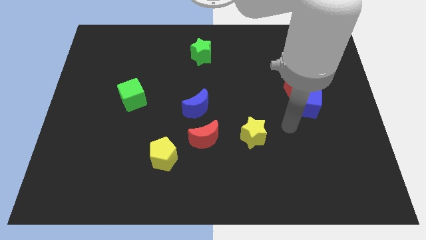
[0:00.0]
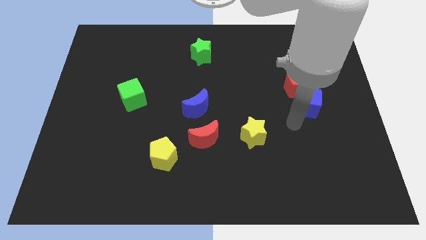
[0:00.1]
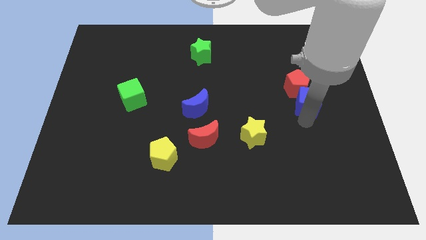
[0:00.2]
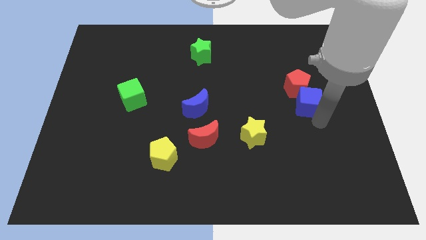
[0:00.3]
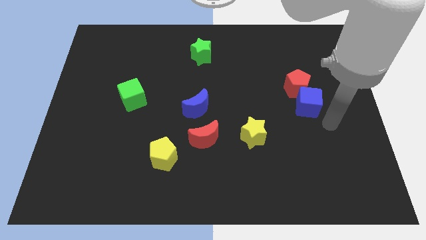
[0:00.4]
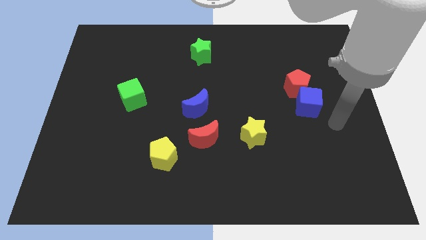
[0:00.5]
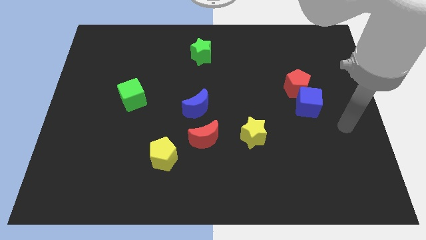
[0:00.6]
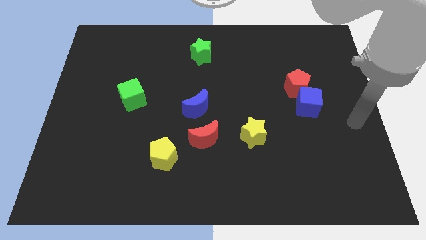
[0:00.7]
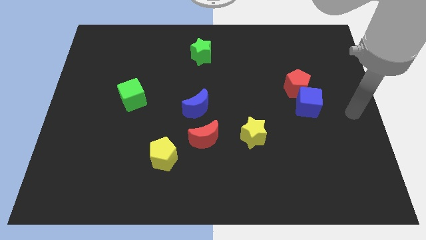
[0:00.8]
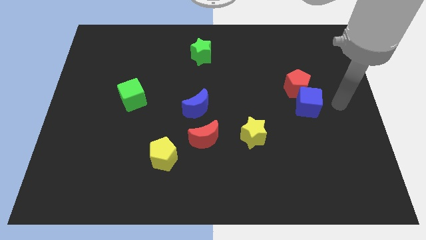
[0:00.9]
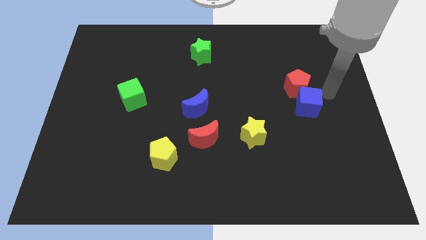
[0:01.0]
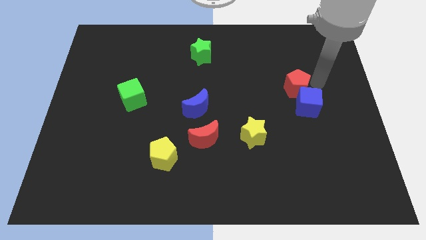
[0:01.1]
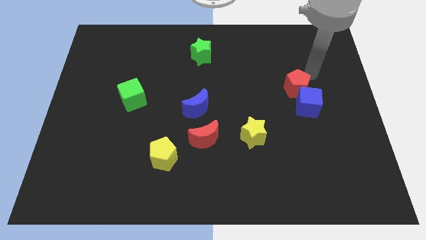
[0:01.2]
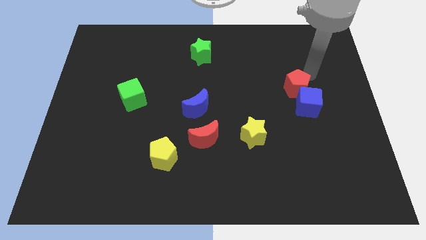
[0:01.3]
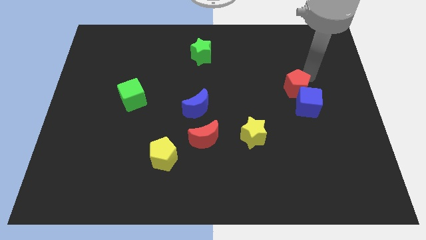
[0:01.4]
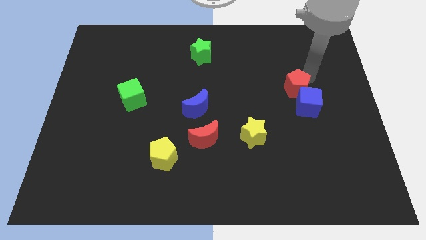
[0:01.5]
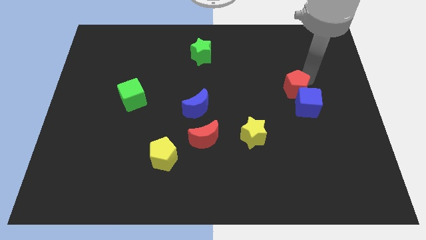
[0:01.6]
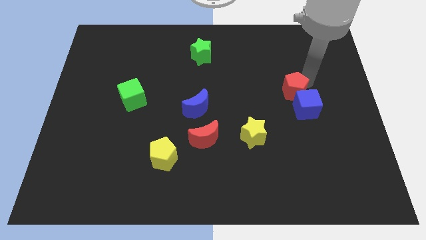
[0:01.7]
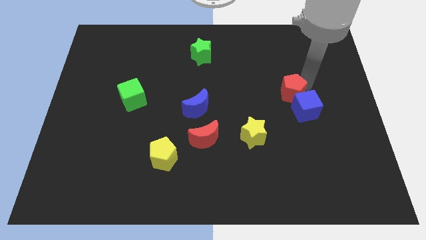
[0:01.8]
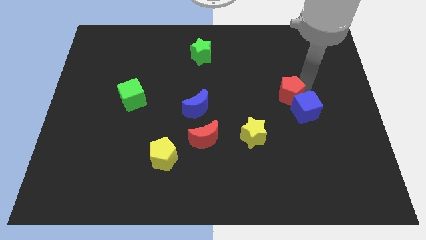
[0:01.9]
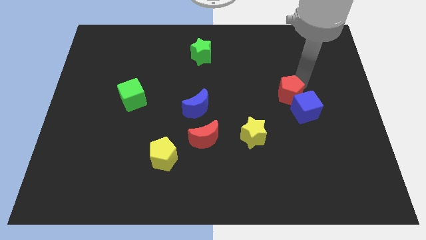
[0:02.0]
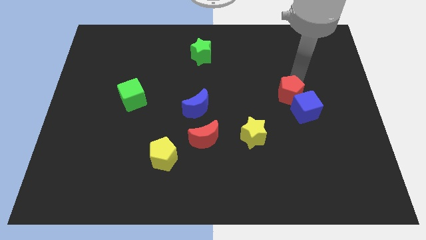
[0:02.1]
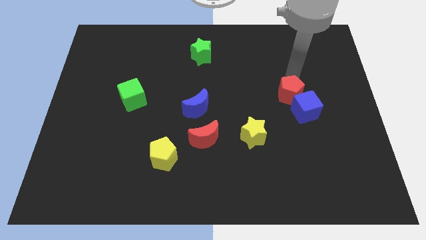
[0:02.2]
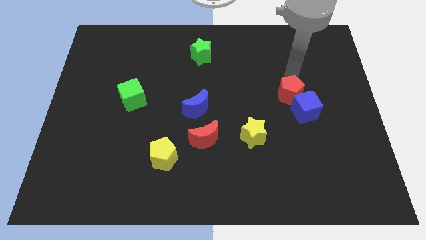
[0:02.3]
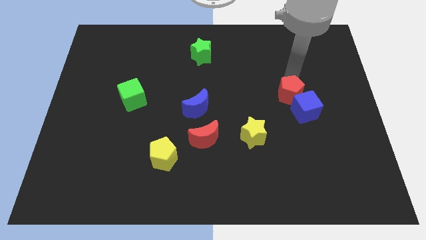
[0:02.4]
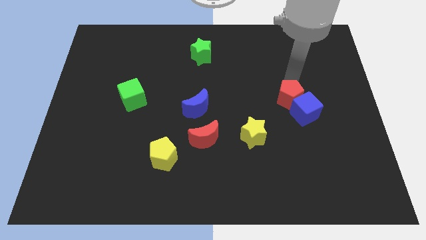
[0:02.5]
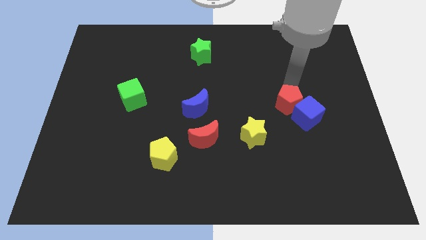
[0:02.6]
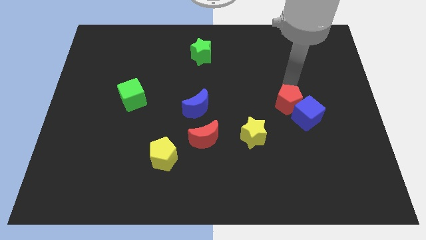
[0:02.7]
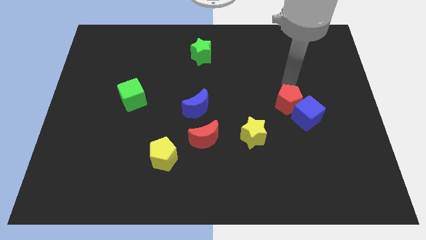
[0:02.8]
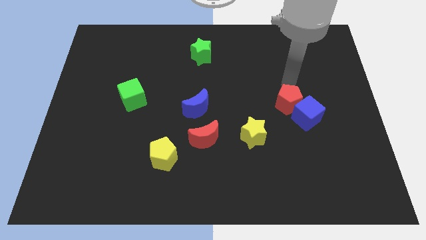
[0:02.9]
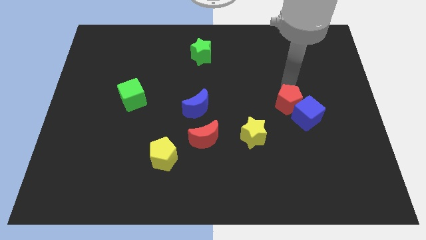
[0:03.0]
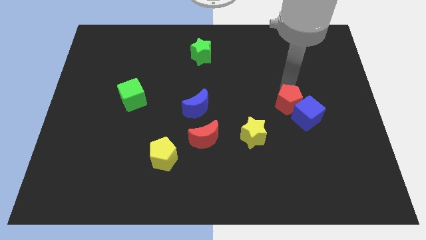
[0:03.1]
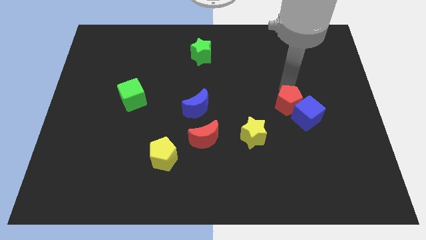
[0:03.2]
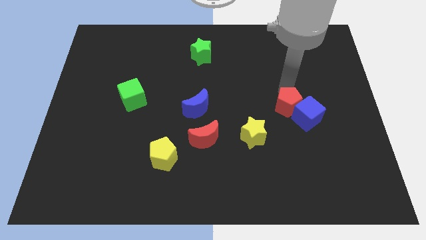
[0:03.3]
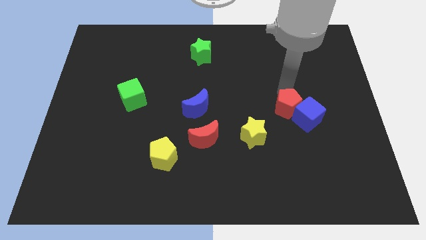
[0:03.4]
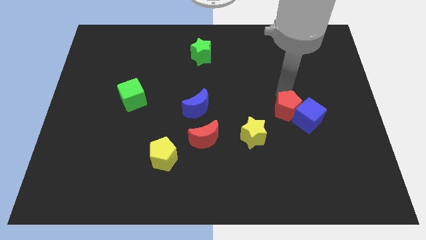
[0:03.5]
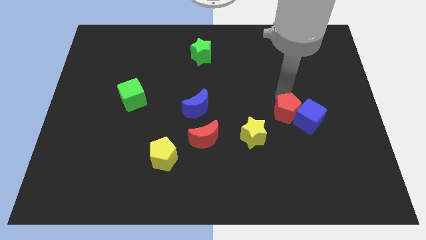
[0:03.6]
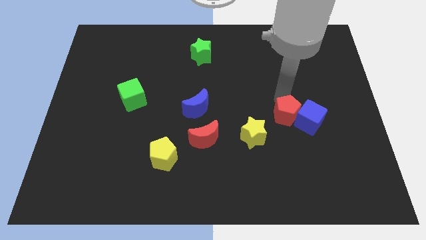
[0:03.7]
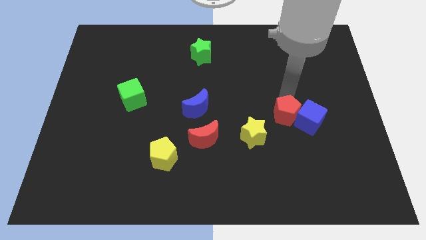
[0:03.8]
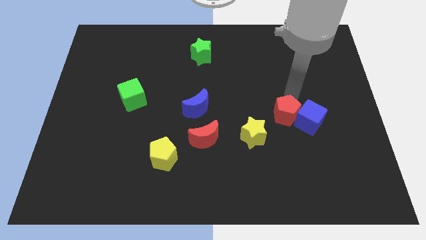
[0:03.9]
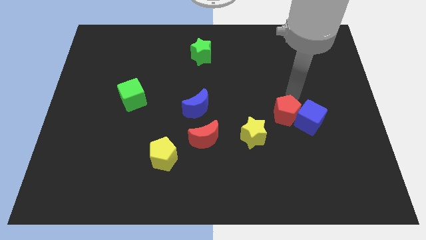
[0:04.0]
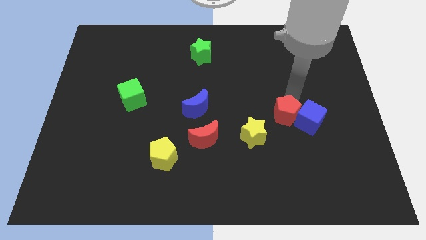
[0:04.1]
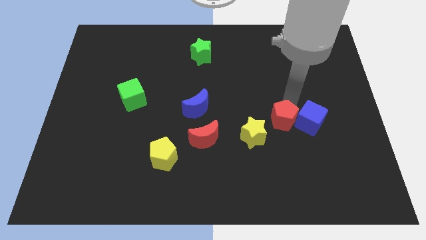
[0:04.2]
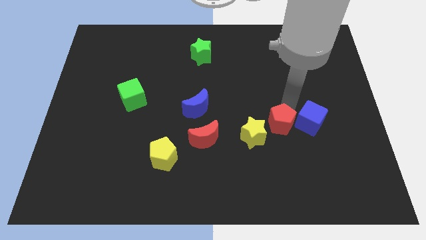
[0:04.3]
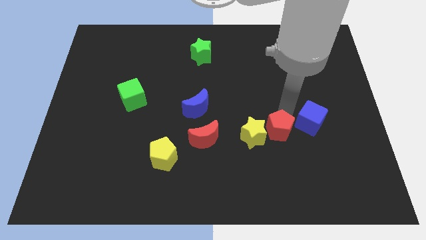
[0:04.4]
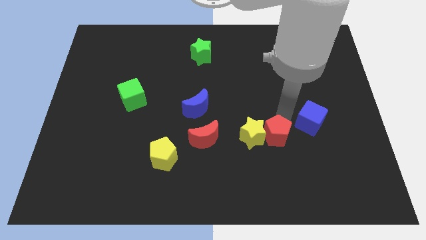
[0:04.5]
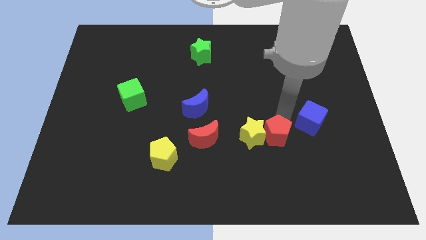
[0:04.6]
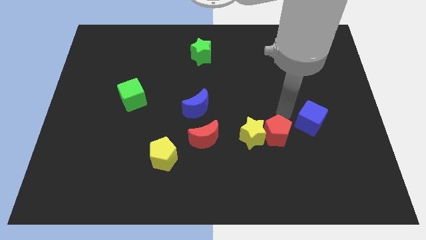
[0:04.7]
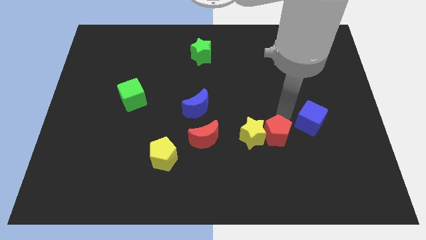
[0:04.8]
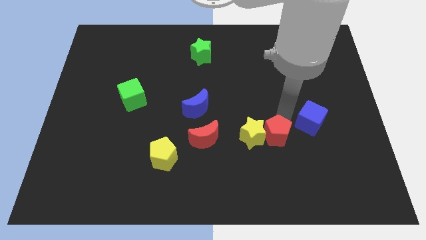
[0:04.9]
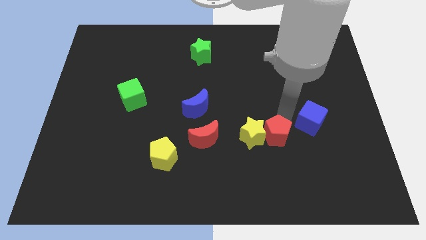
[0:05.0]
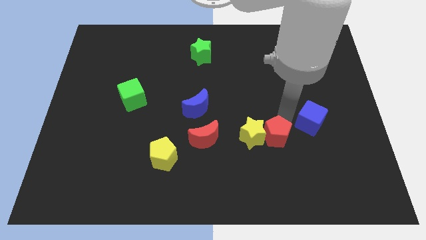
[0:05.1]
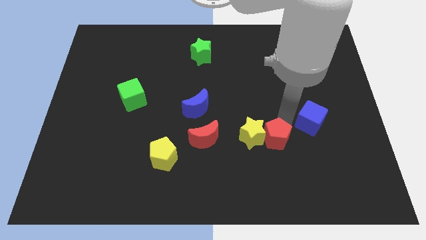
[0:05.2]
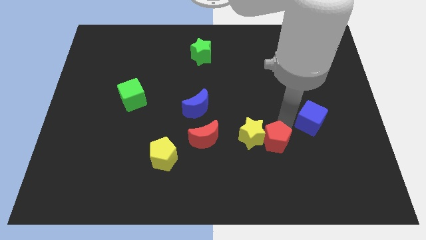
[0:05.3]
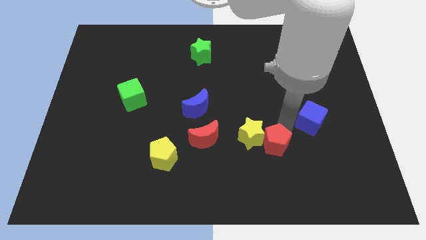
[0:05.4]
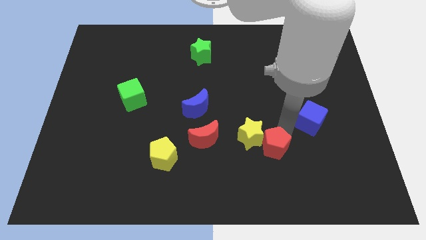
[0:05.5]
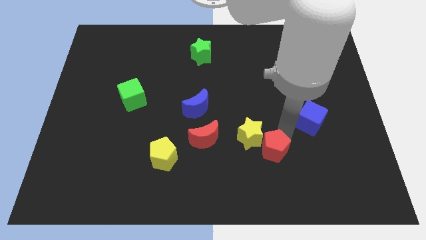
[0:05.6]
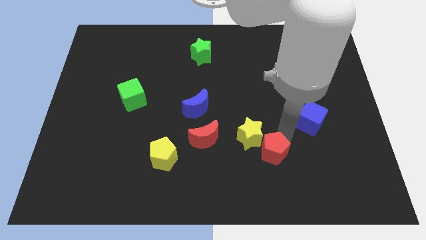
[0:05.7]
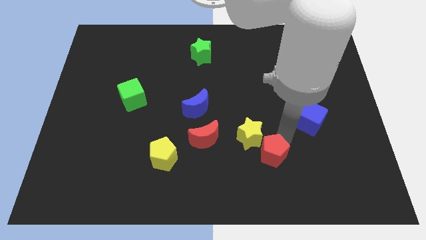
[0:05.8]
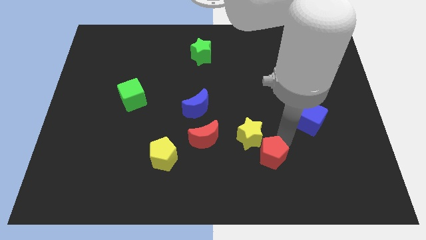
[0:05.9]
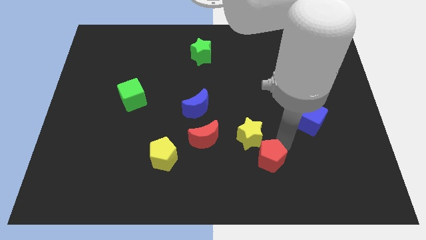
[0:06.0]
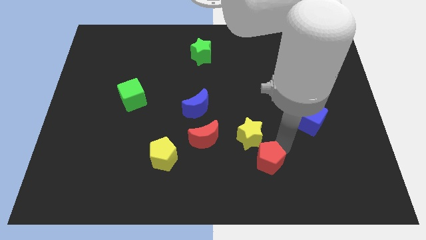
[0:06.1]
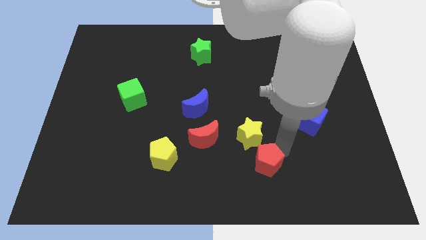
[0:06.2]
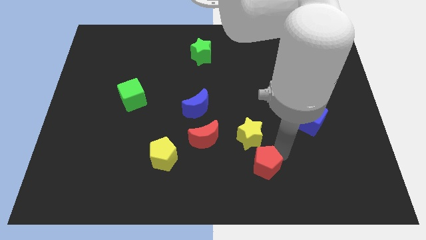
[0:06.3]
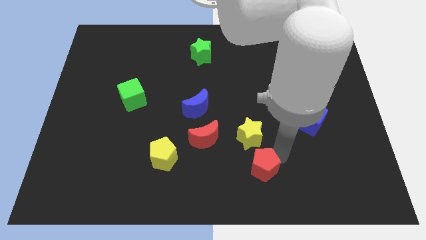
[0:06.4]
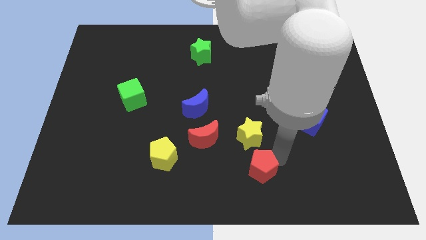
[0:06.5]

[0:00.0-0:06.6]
put the red pentagon to the bottom
